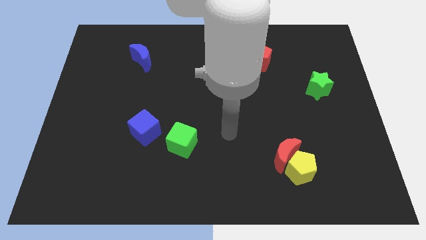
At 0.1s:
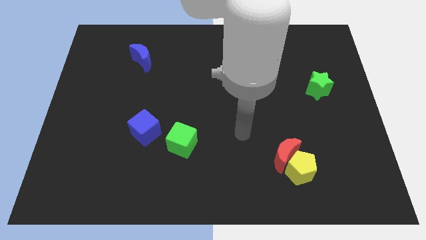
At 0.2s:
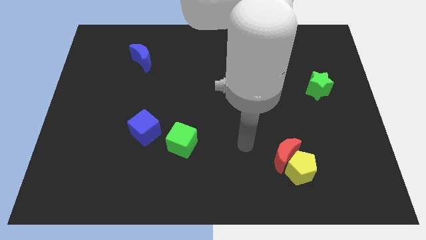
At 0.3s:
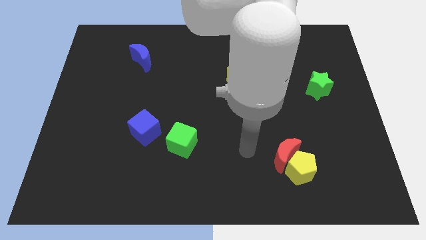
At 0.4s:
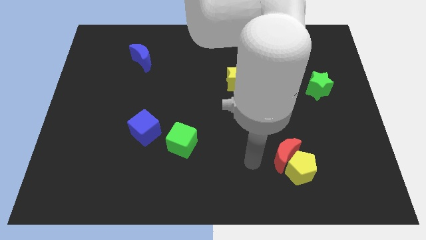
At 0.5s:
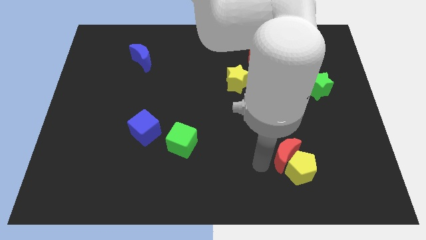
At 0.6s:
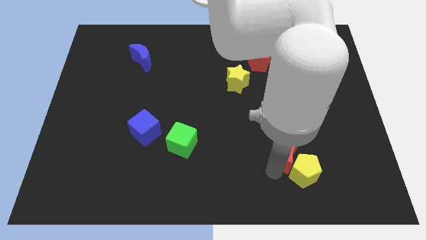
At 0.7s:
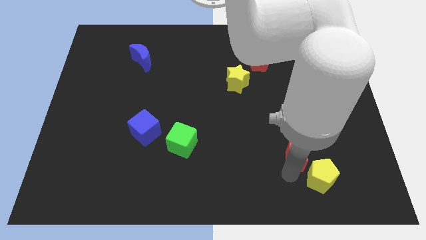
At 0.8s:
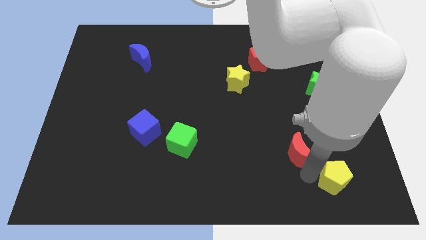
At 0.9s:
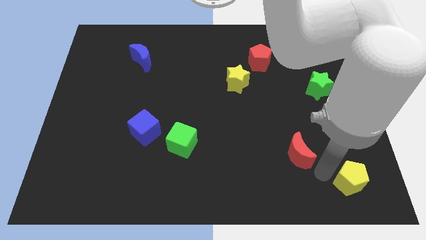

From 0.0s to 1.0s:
move the red moon away from the yellow pentagon

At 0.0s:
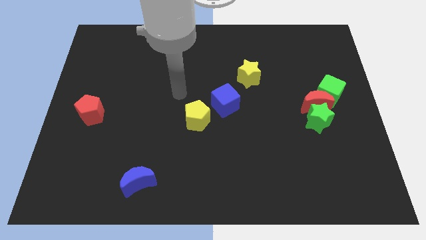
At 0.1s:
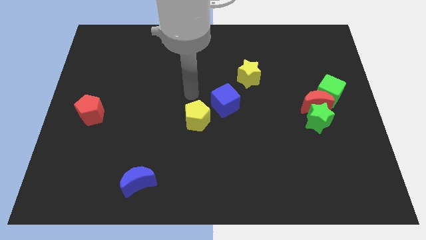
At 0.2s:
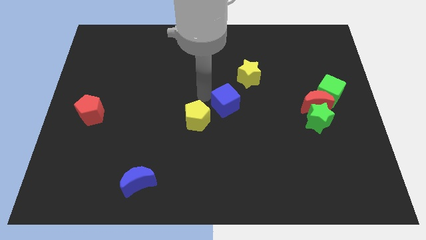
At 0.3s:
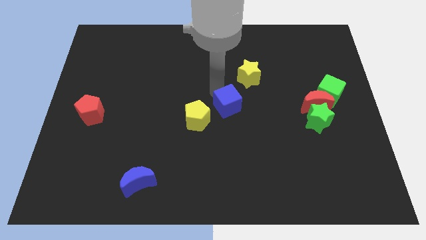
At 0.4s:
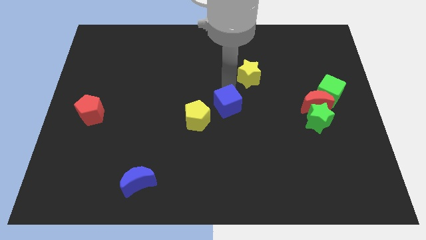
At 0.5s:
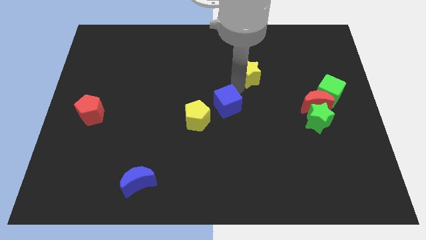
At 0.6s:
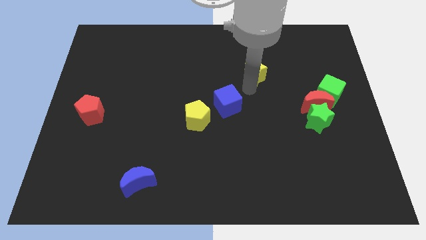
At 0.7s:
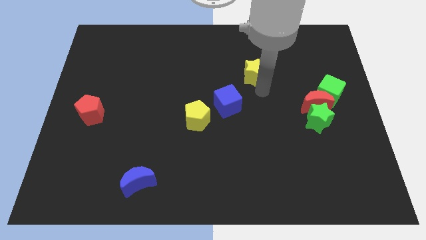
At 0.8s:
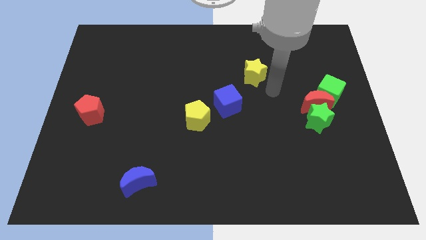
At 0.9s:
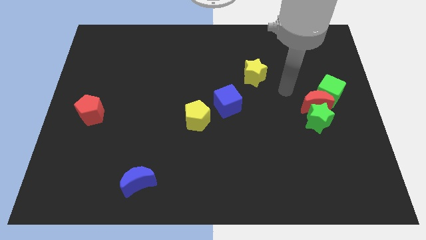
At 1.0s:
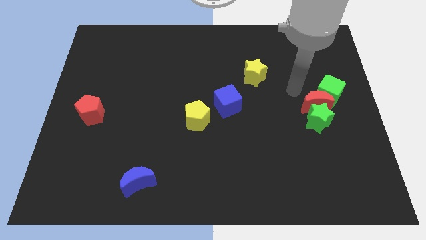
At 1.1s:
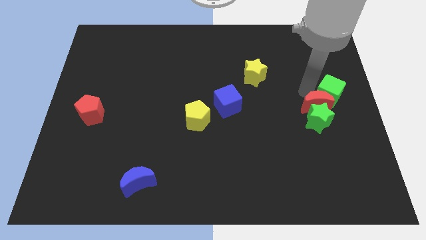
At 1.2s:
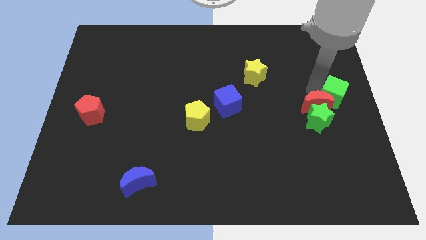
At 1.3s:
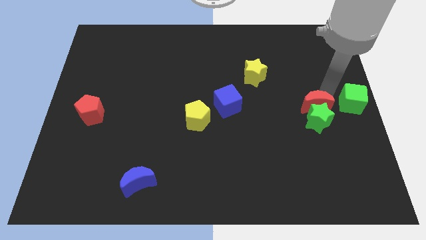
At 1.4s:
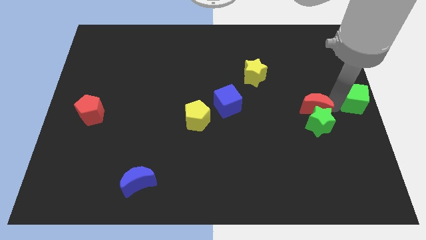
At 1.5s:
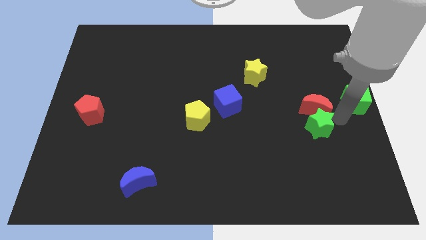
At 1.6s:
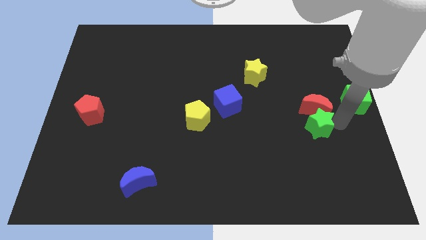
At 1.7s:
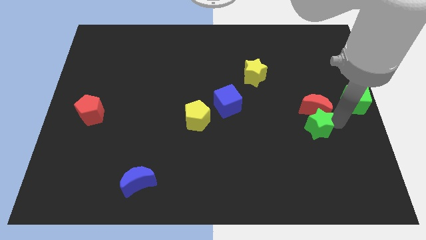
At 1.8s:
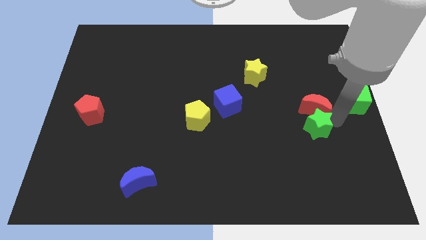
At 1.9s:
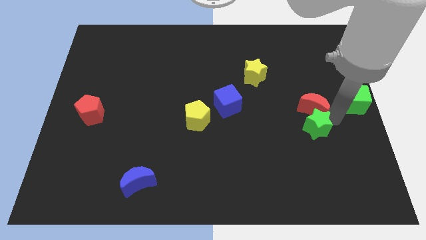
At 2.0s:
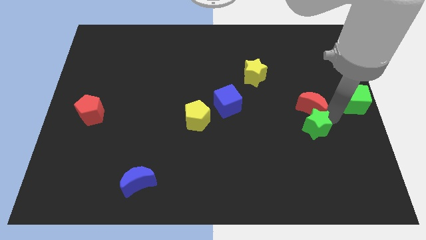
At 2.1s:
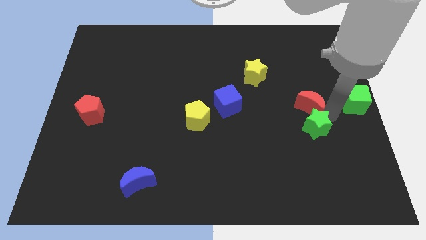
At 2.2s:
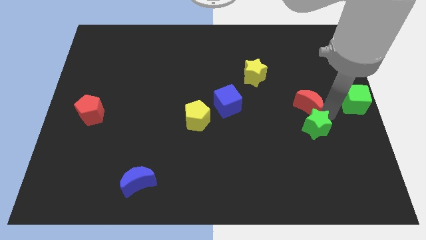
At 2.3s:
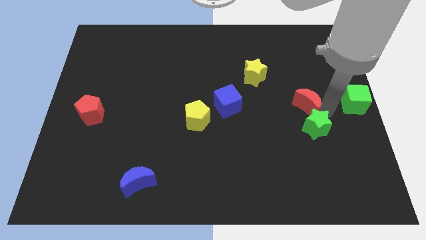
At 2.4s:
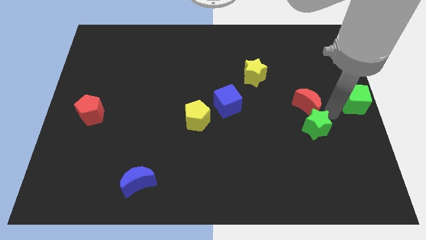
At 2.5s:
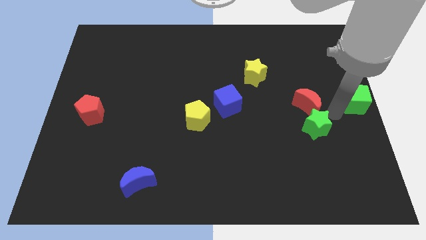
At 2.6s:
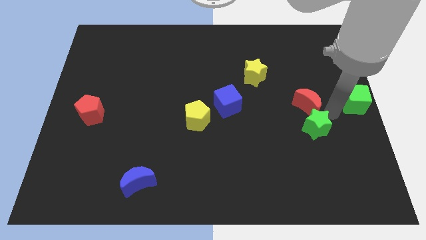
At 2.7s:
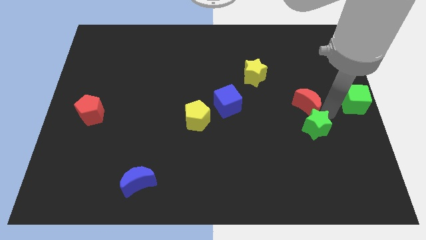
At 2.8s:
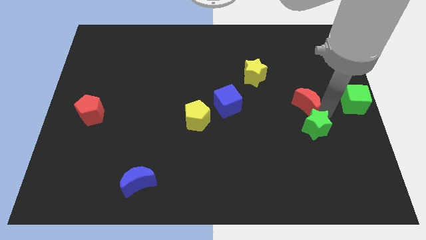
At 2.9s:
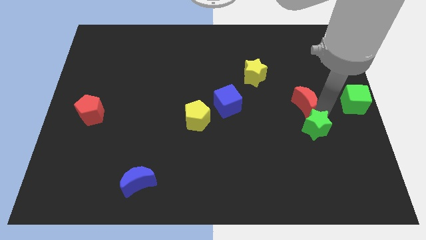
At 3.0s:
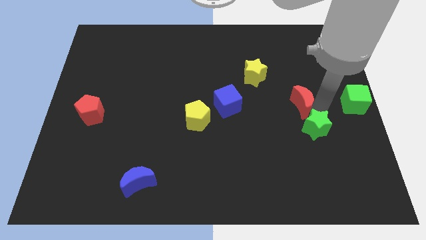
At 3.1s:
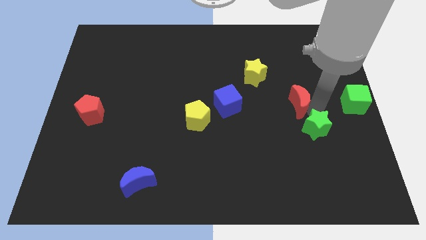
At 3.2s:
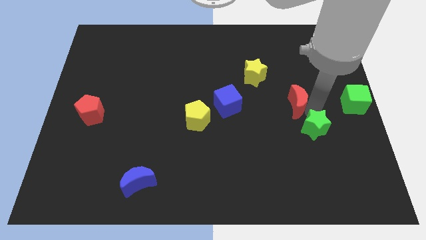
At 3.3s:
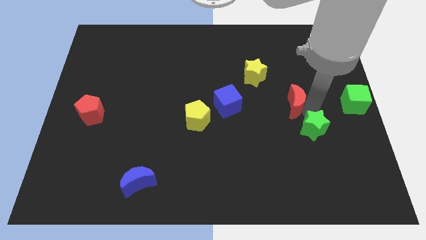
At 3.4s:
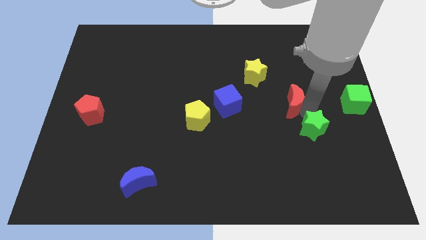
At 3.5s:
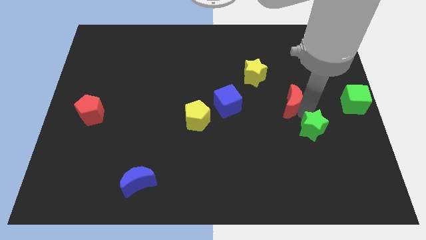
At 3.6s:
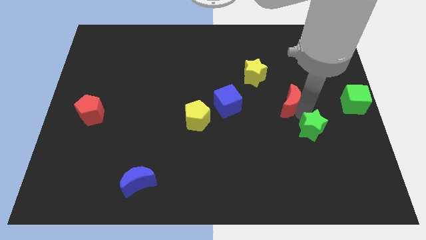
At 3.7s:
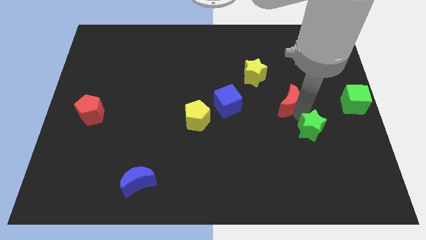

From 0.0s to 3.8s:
pull the red moon apart from the green star and green cube

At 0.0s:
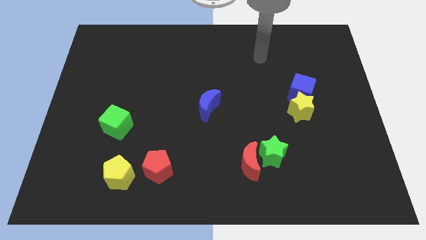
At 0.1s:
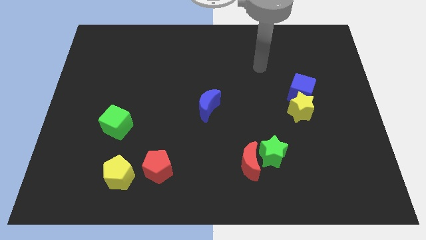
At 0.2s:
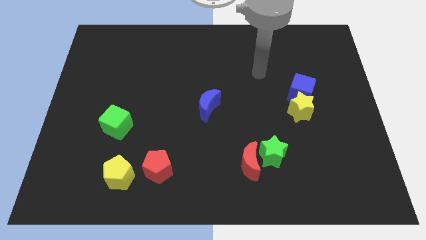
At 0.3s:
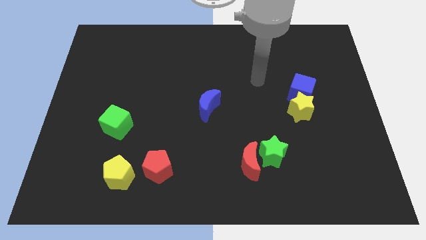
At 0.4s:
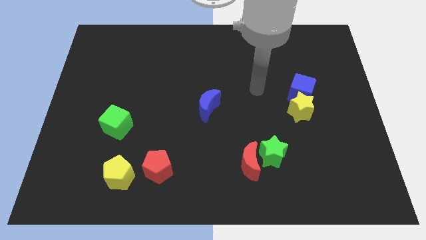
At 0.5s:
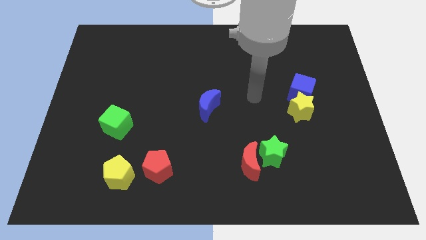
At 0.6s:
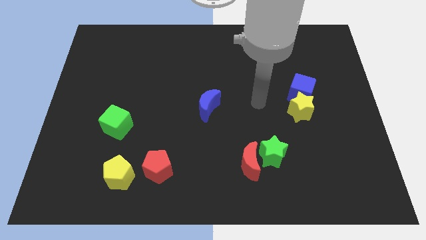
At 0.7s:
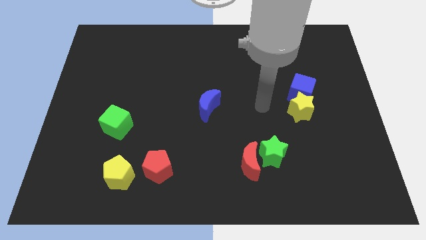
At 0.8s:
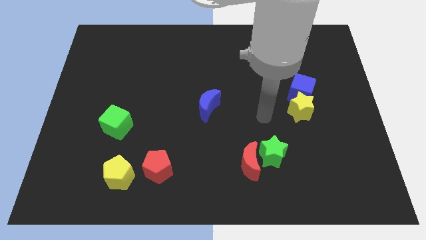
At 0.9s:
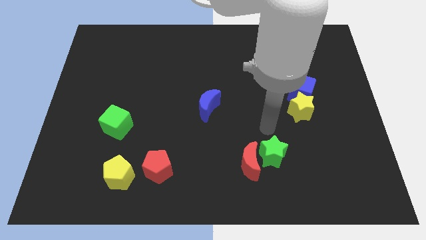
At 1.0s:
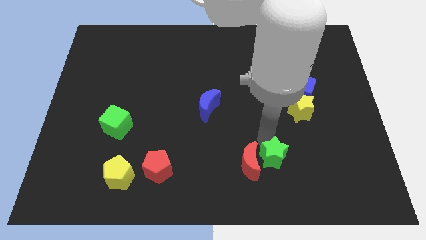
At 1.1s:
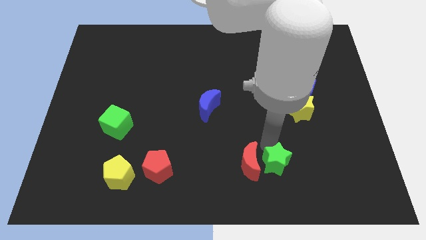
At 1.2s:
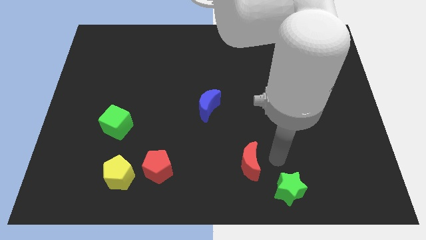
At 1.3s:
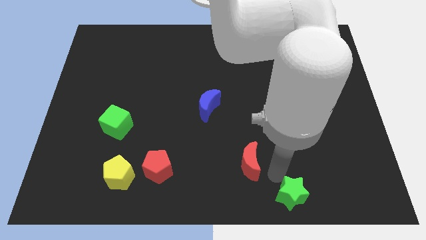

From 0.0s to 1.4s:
move the red moon away from the green star

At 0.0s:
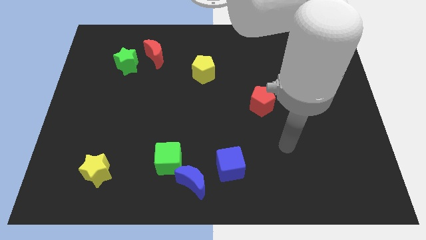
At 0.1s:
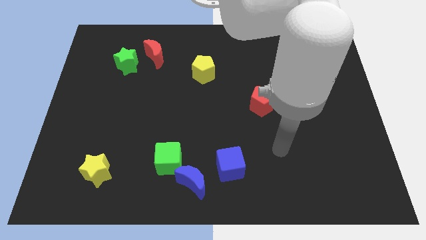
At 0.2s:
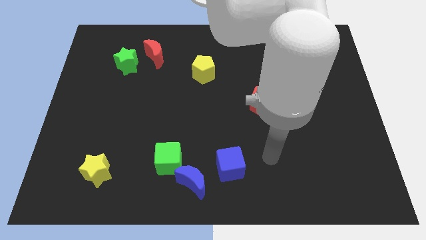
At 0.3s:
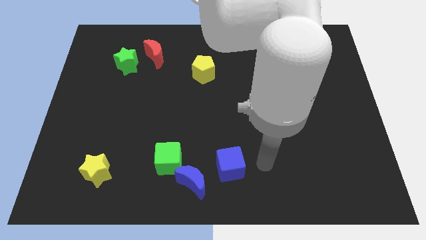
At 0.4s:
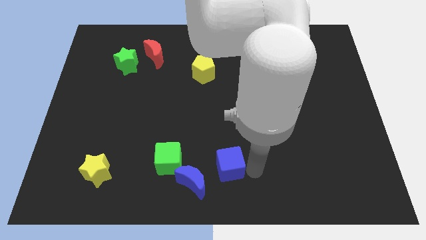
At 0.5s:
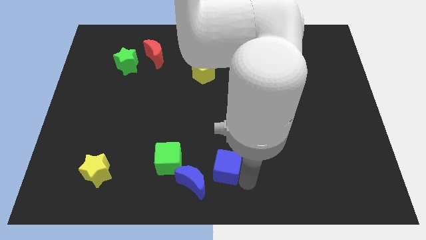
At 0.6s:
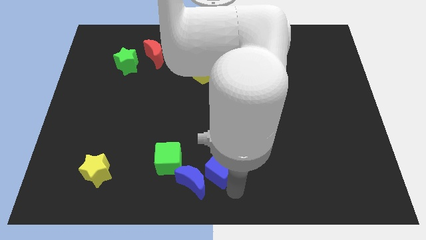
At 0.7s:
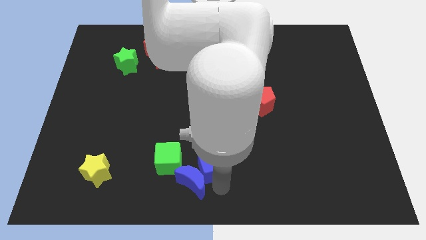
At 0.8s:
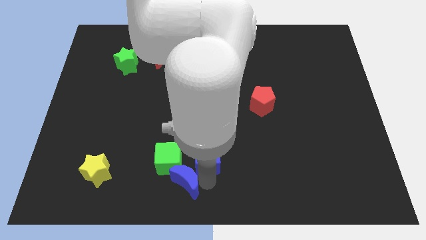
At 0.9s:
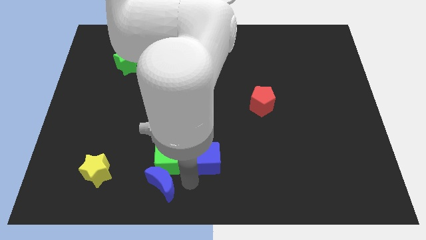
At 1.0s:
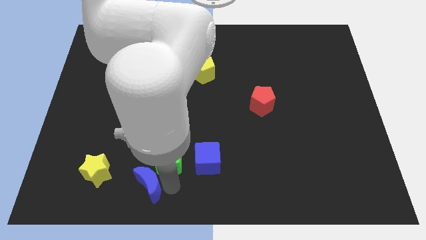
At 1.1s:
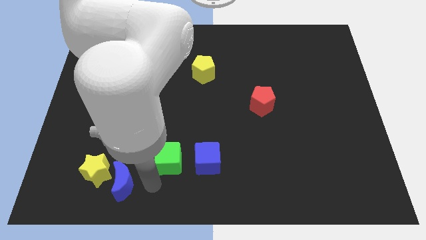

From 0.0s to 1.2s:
move the green cube away from the blue moon

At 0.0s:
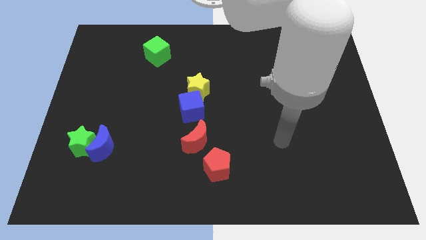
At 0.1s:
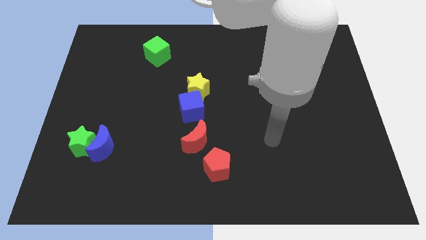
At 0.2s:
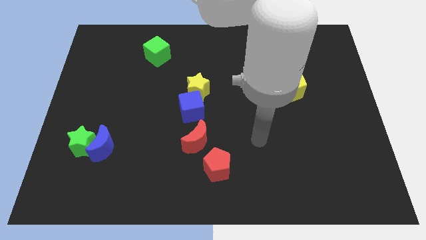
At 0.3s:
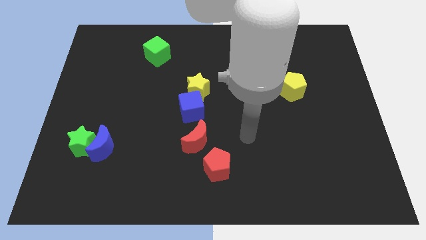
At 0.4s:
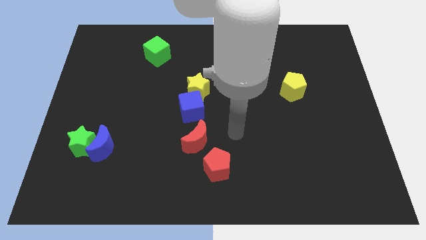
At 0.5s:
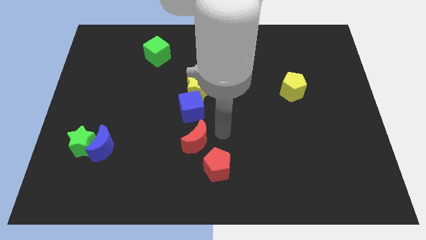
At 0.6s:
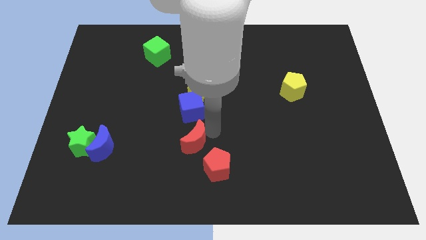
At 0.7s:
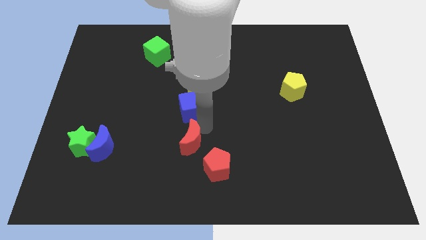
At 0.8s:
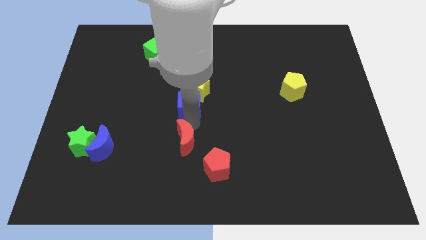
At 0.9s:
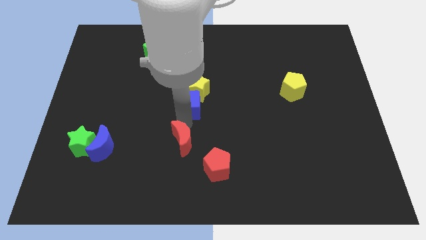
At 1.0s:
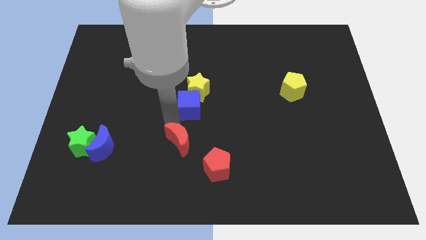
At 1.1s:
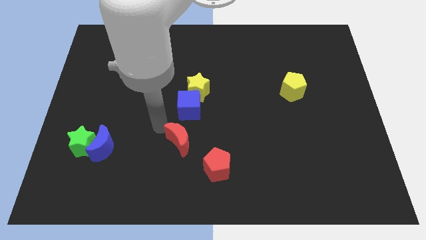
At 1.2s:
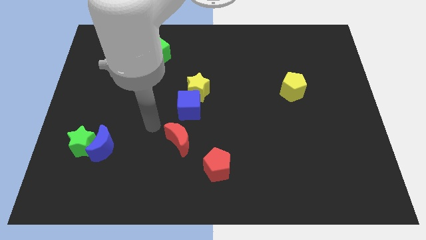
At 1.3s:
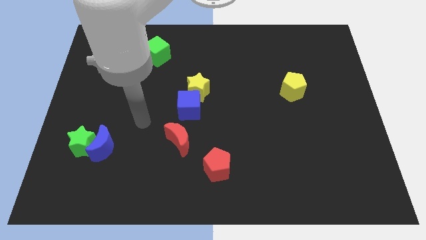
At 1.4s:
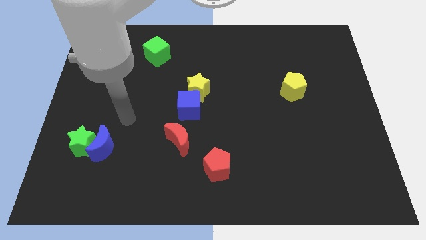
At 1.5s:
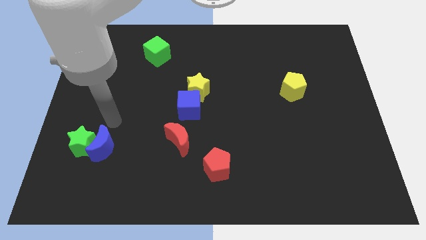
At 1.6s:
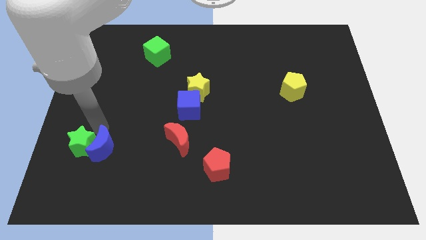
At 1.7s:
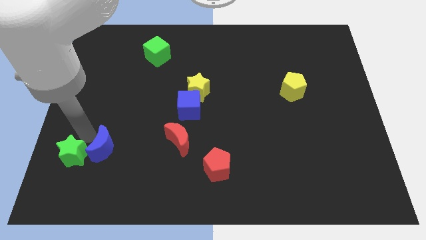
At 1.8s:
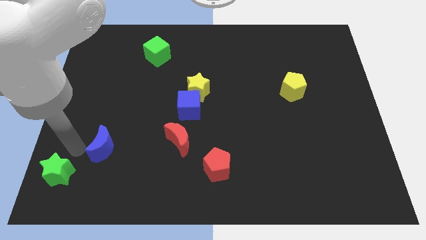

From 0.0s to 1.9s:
move the blue moon away from the green star
